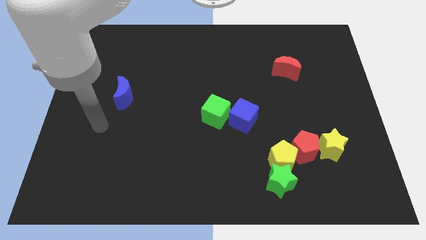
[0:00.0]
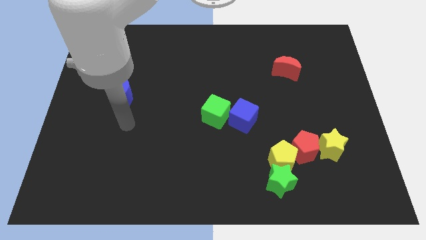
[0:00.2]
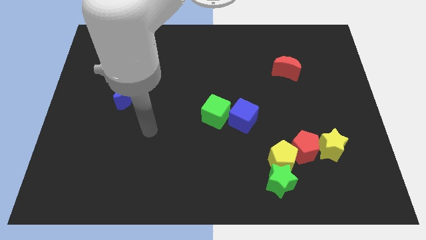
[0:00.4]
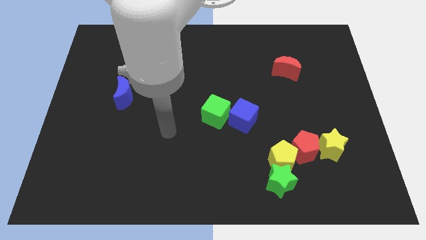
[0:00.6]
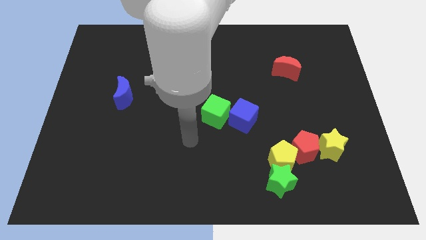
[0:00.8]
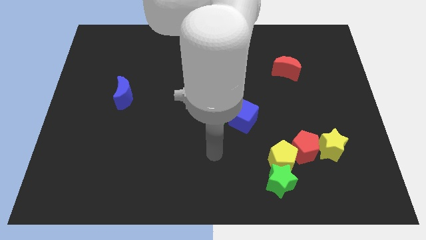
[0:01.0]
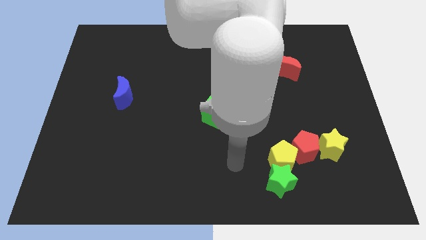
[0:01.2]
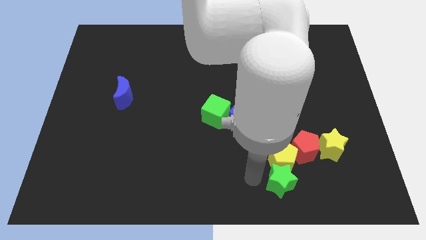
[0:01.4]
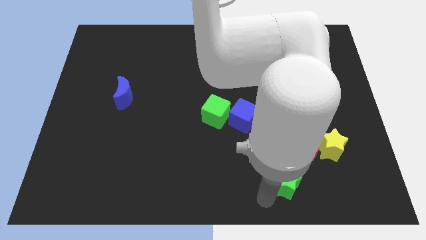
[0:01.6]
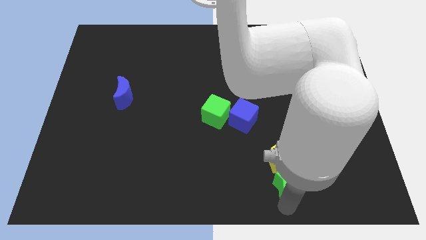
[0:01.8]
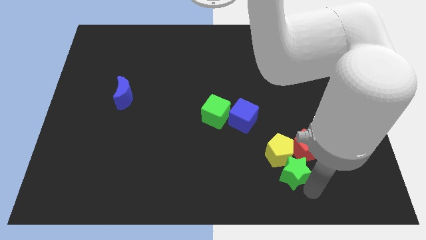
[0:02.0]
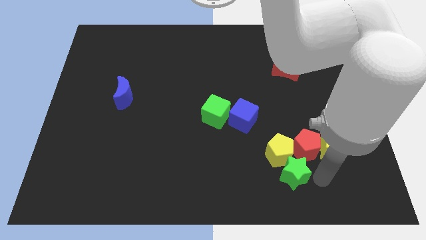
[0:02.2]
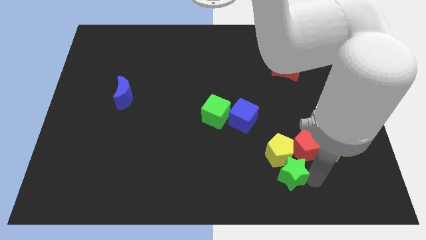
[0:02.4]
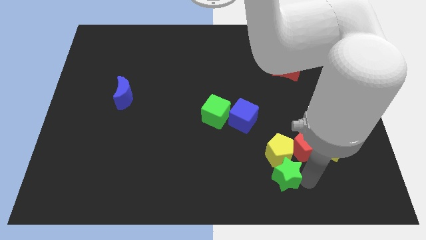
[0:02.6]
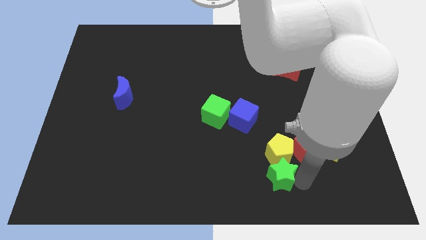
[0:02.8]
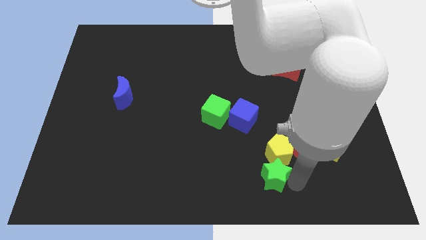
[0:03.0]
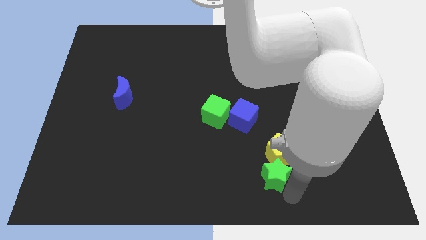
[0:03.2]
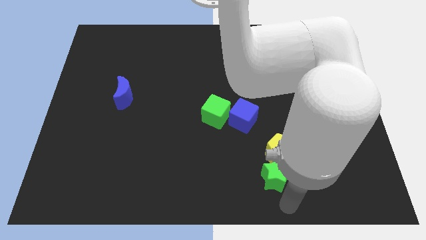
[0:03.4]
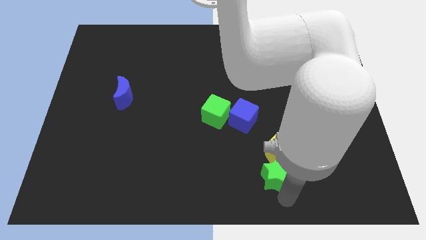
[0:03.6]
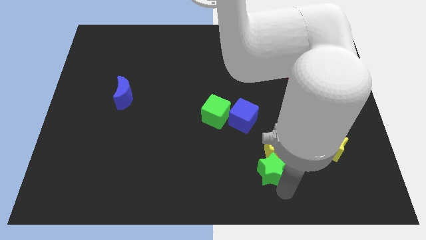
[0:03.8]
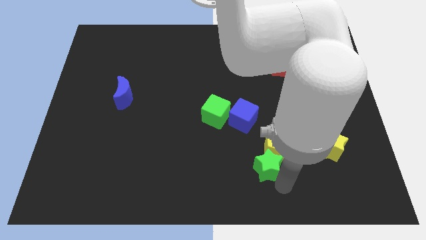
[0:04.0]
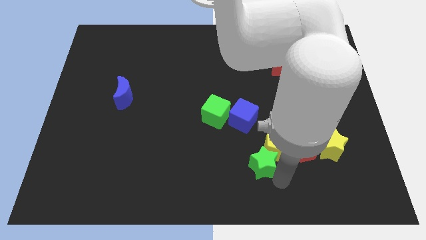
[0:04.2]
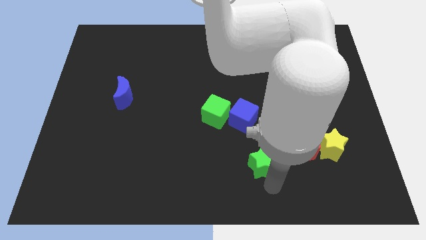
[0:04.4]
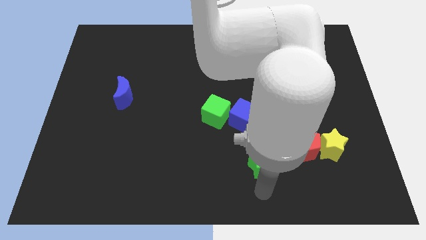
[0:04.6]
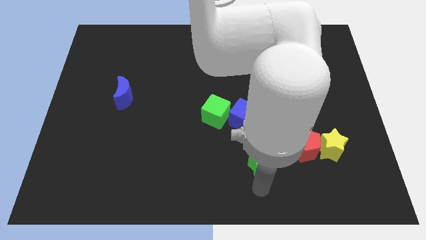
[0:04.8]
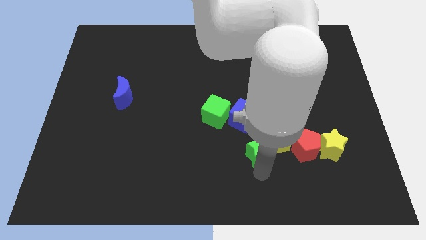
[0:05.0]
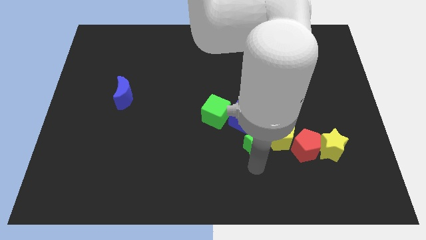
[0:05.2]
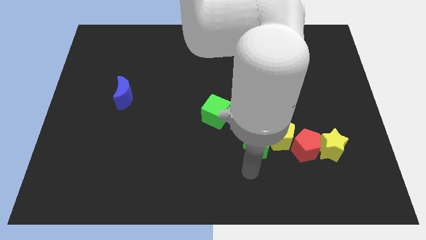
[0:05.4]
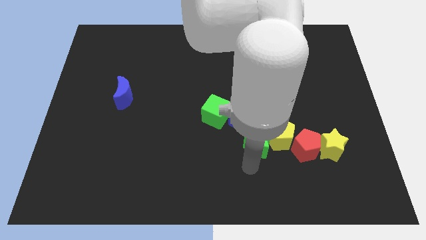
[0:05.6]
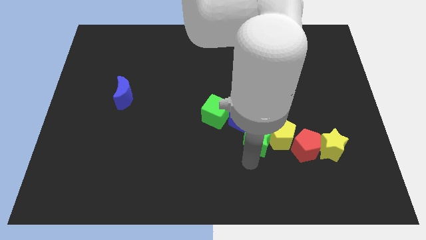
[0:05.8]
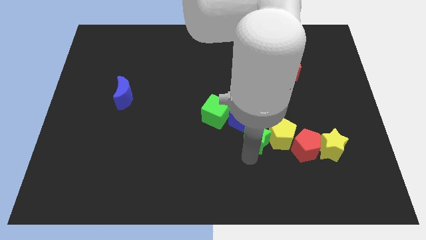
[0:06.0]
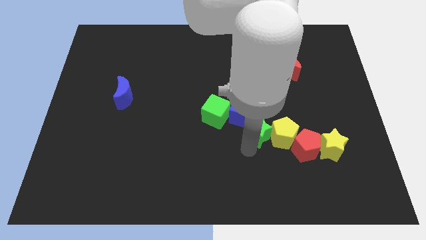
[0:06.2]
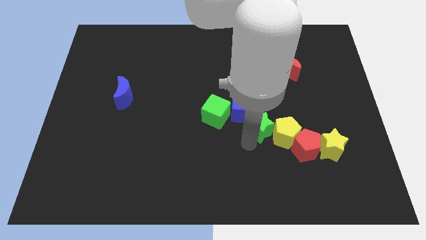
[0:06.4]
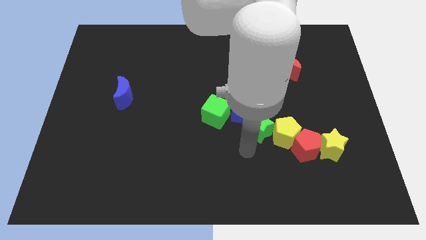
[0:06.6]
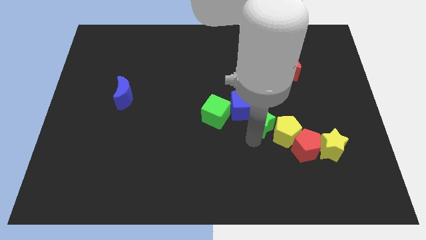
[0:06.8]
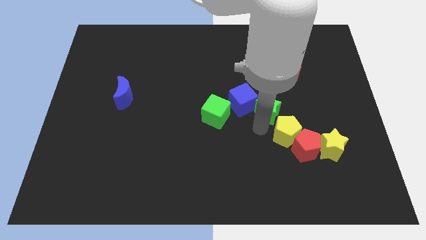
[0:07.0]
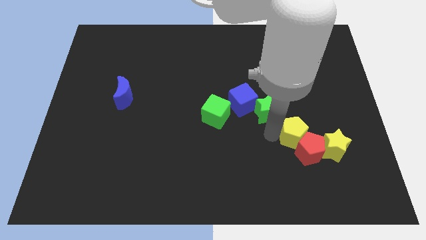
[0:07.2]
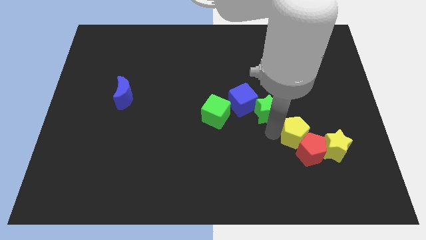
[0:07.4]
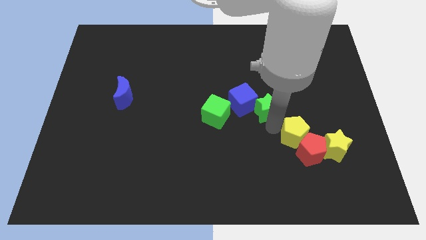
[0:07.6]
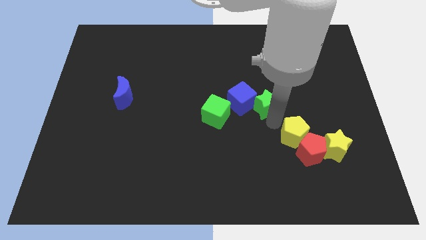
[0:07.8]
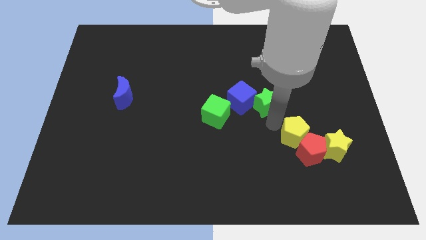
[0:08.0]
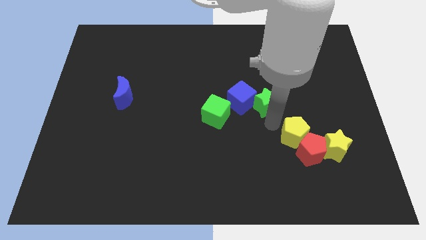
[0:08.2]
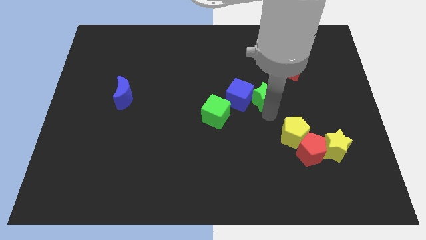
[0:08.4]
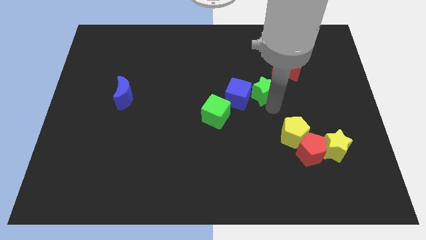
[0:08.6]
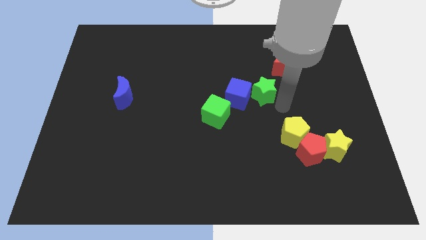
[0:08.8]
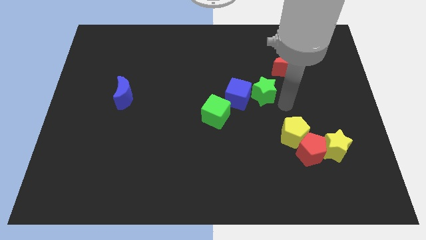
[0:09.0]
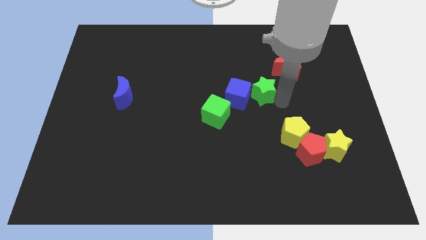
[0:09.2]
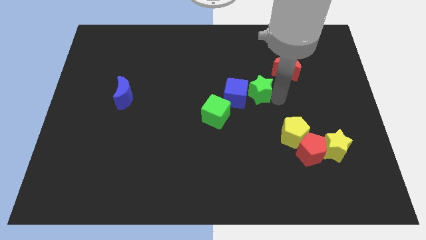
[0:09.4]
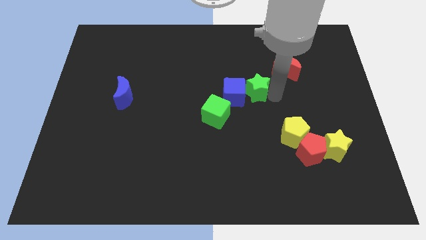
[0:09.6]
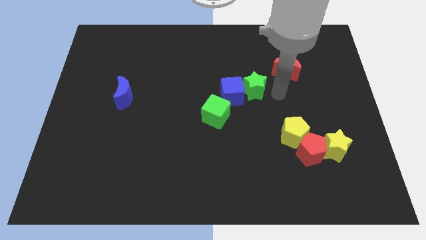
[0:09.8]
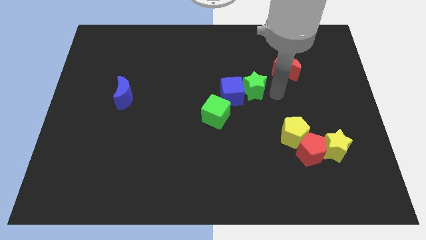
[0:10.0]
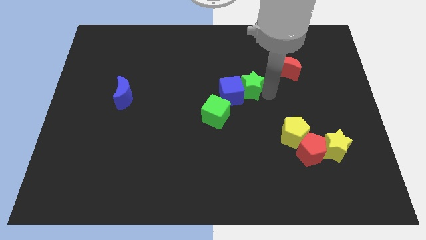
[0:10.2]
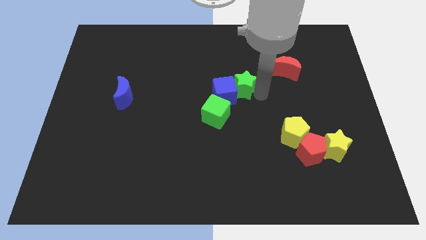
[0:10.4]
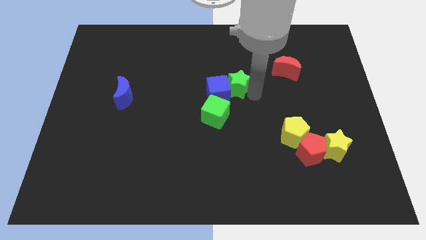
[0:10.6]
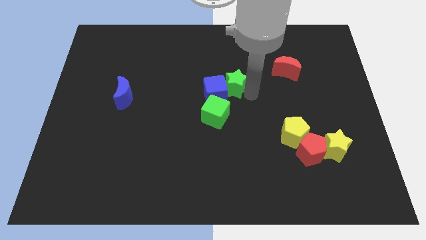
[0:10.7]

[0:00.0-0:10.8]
put the green star to the top side of the green cube

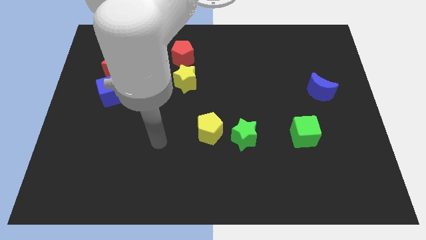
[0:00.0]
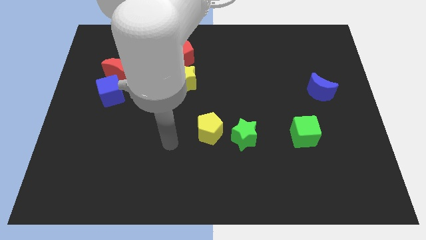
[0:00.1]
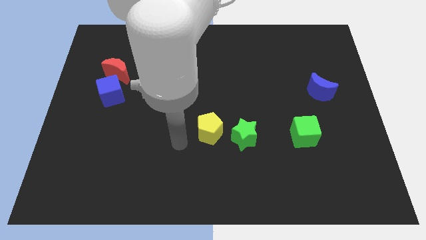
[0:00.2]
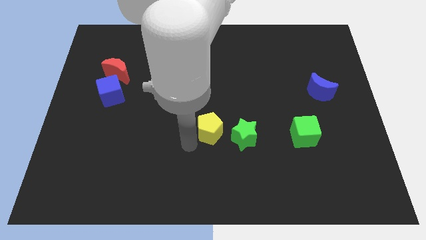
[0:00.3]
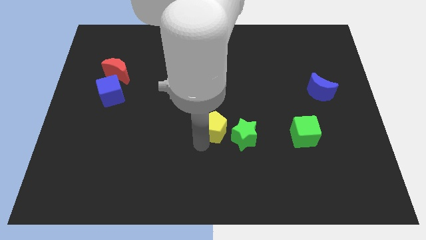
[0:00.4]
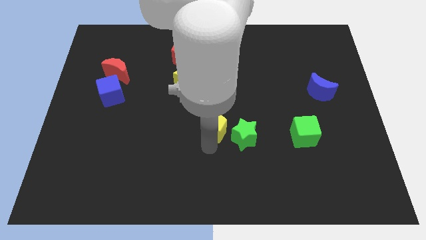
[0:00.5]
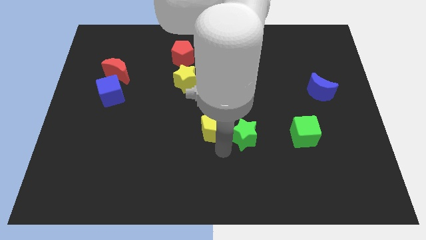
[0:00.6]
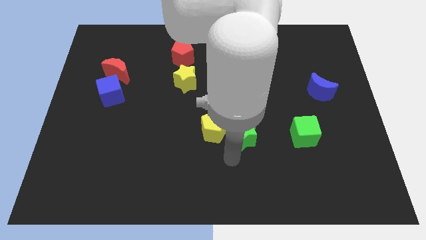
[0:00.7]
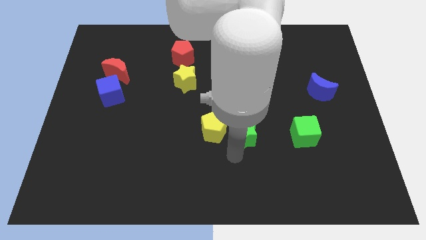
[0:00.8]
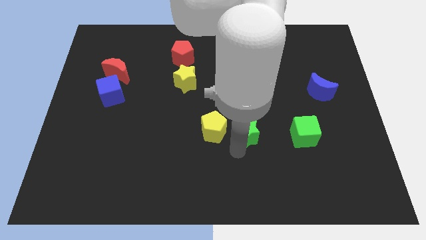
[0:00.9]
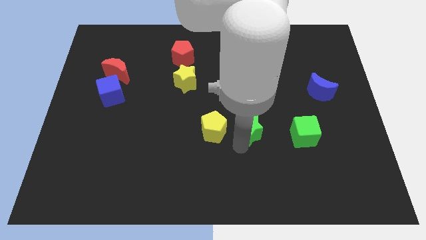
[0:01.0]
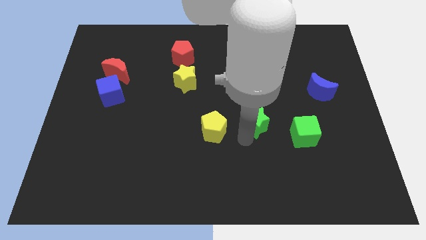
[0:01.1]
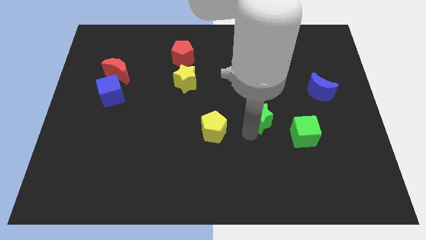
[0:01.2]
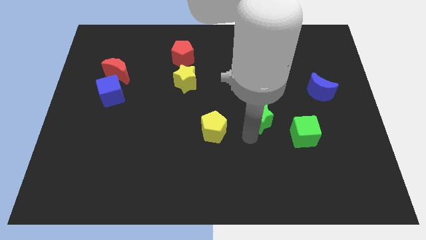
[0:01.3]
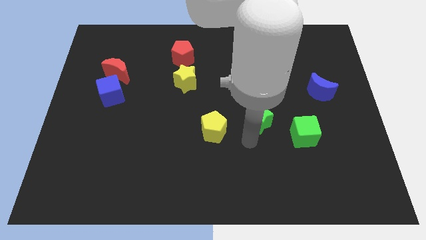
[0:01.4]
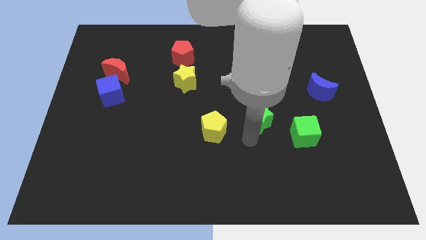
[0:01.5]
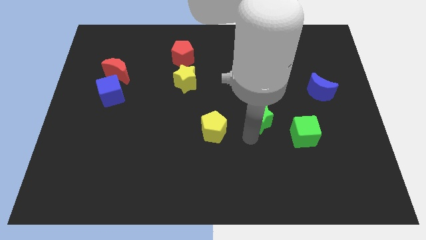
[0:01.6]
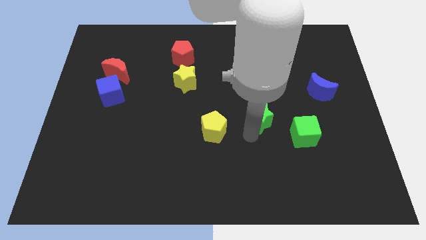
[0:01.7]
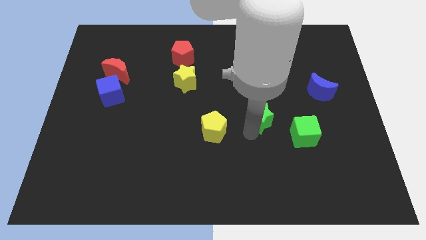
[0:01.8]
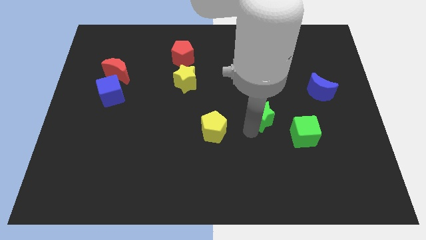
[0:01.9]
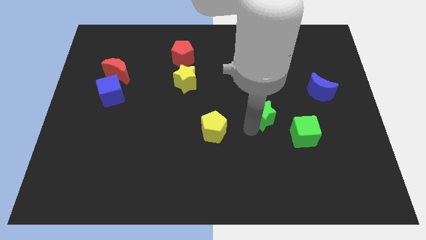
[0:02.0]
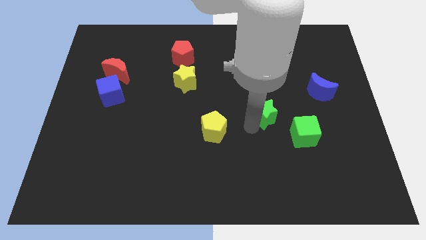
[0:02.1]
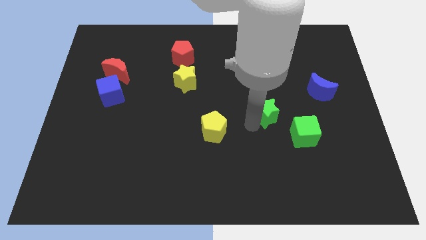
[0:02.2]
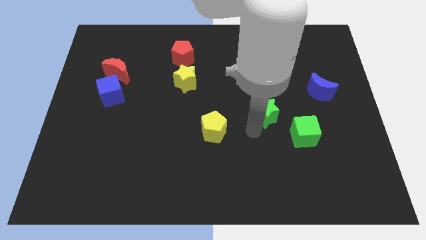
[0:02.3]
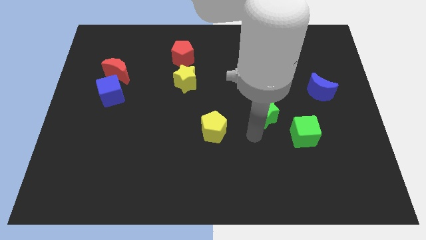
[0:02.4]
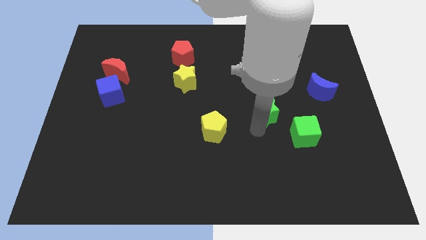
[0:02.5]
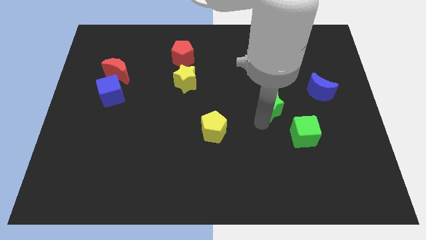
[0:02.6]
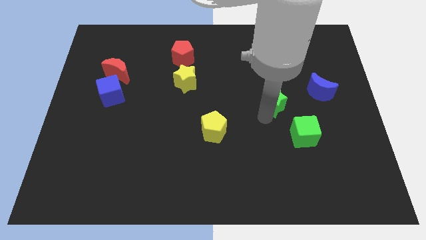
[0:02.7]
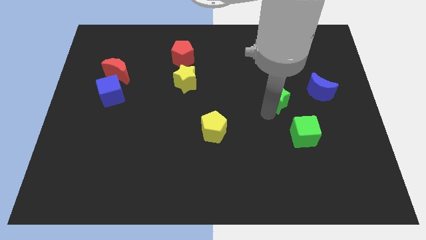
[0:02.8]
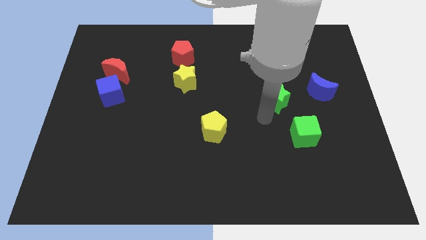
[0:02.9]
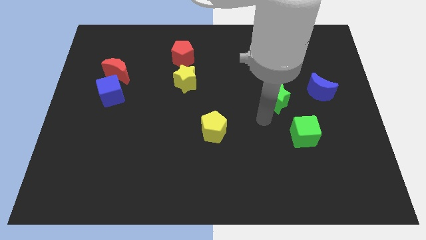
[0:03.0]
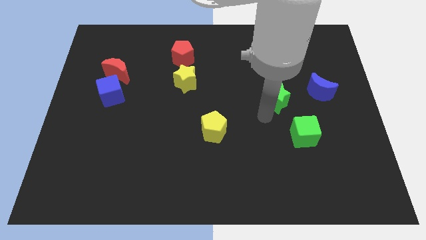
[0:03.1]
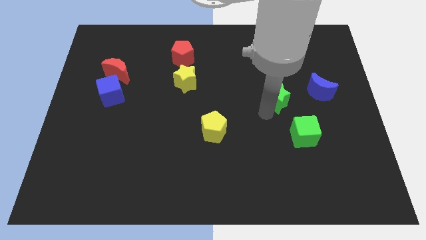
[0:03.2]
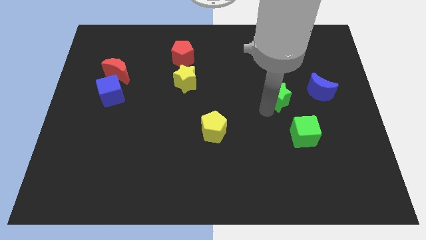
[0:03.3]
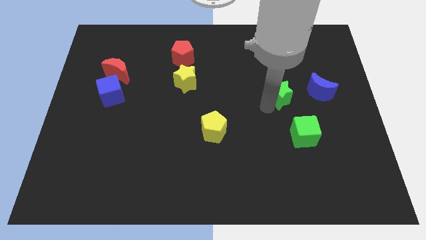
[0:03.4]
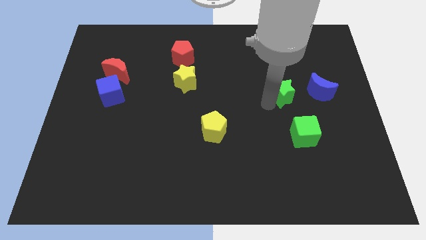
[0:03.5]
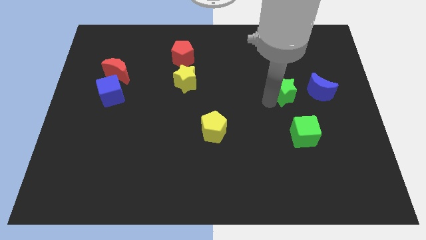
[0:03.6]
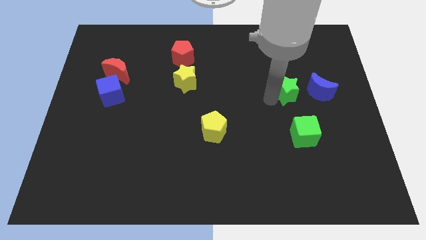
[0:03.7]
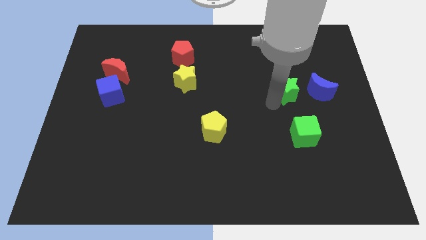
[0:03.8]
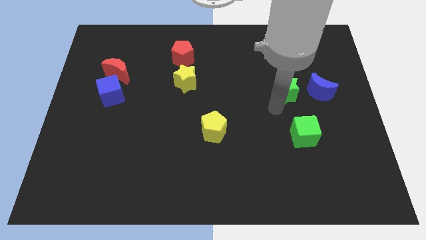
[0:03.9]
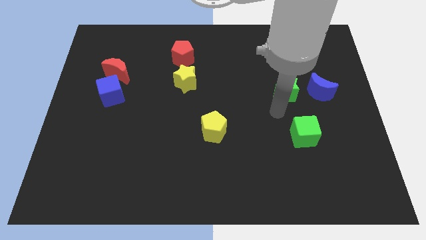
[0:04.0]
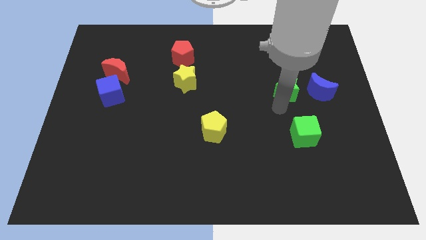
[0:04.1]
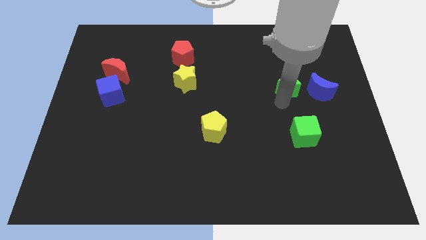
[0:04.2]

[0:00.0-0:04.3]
put the green star diagonally up and to the left of the blue moon
